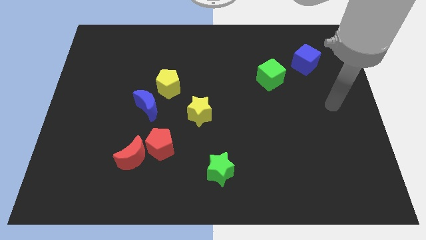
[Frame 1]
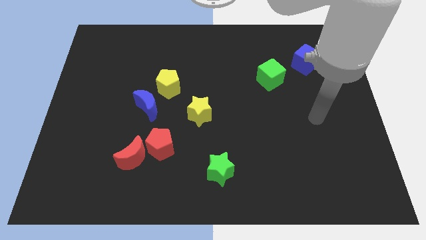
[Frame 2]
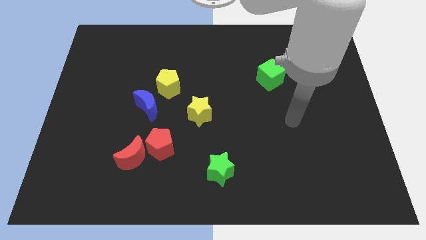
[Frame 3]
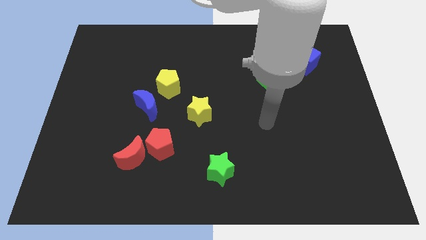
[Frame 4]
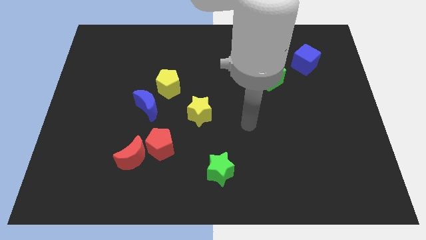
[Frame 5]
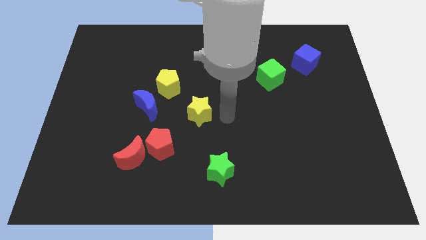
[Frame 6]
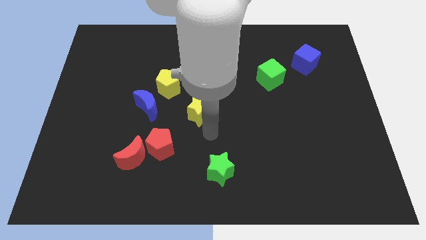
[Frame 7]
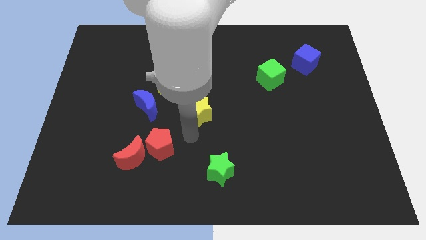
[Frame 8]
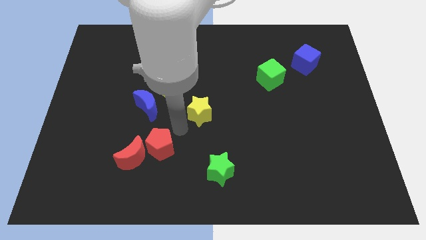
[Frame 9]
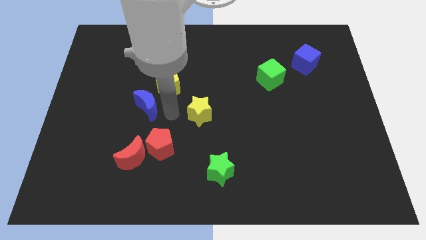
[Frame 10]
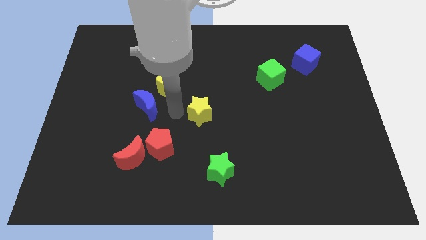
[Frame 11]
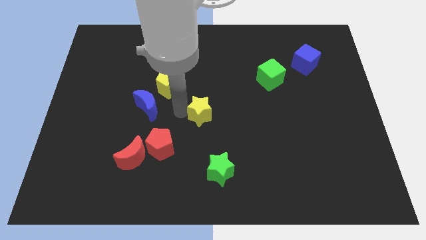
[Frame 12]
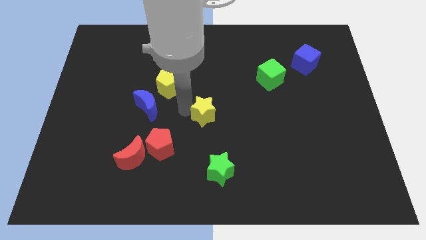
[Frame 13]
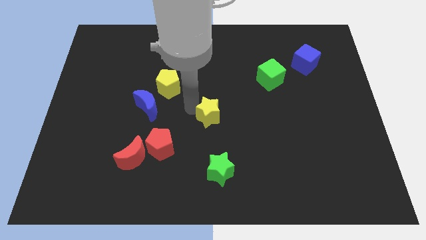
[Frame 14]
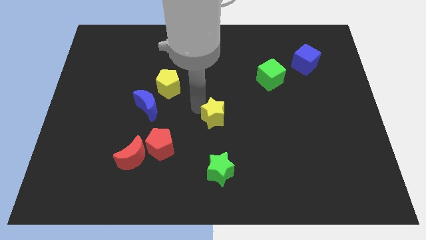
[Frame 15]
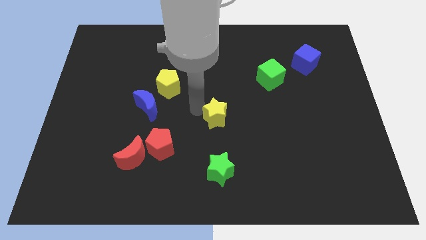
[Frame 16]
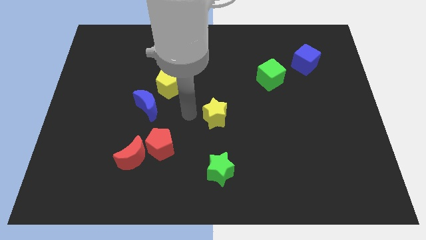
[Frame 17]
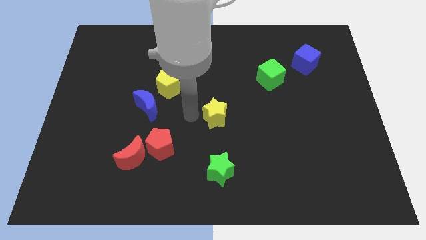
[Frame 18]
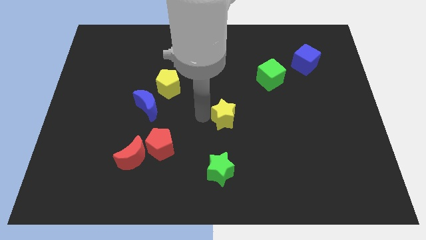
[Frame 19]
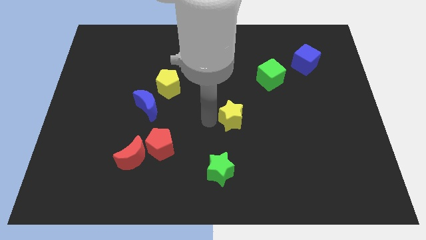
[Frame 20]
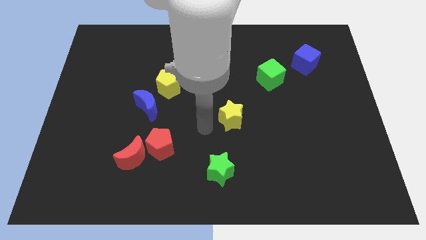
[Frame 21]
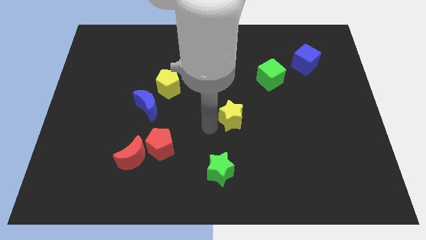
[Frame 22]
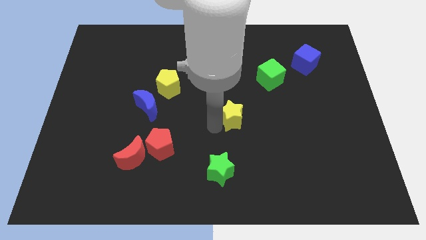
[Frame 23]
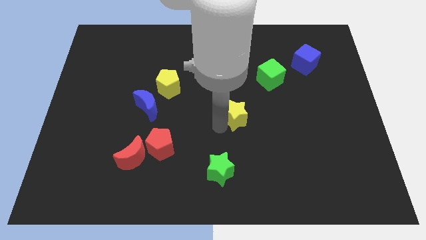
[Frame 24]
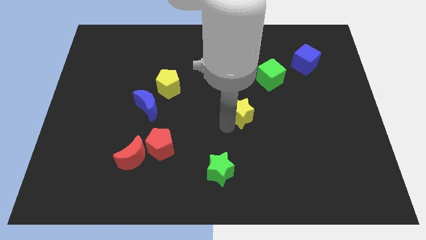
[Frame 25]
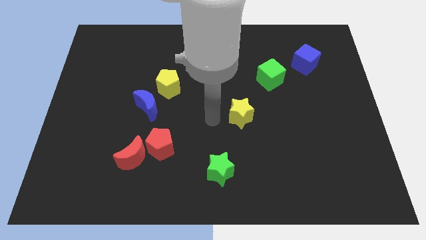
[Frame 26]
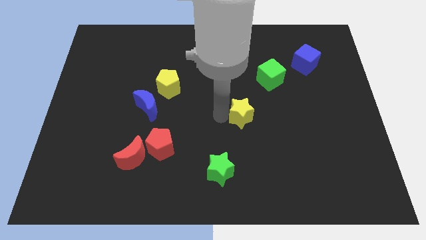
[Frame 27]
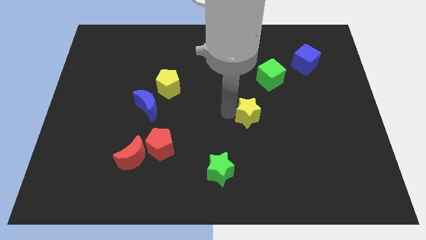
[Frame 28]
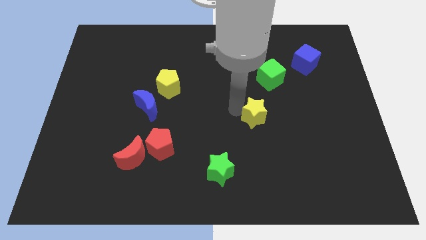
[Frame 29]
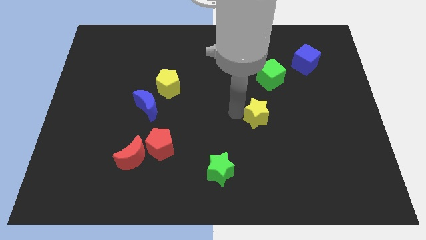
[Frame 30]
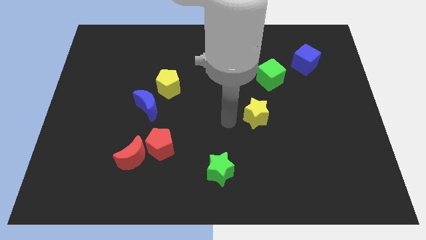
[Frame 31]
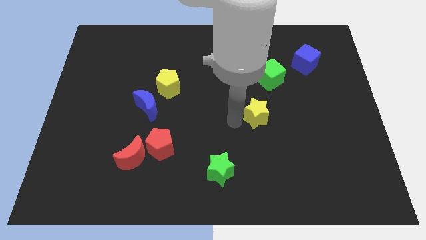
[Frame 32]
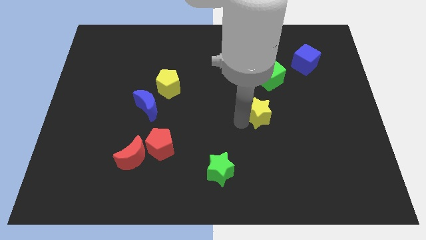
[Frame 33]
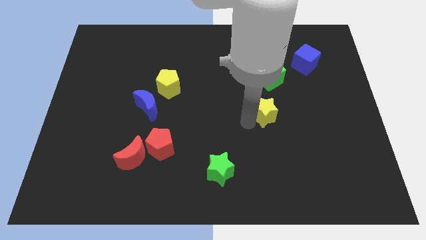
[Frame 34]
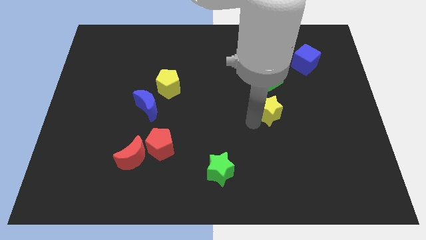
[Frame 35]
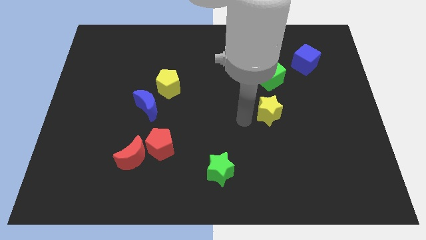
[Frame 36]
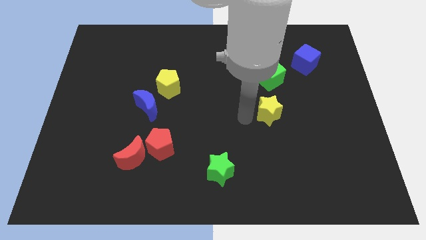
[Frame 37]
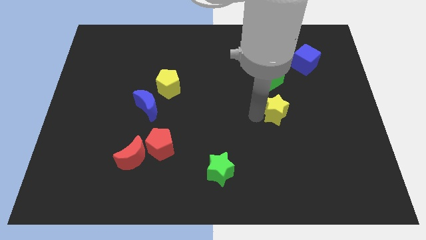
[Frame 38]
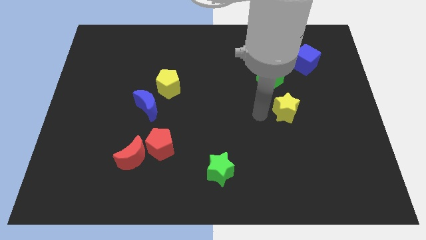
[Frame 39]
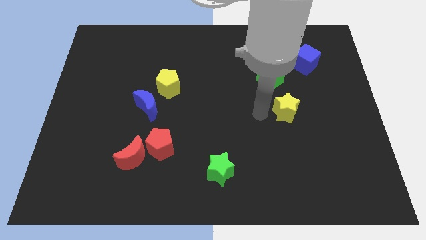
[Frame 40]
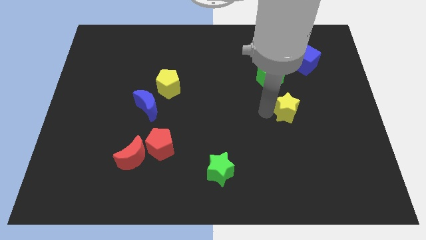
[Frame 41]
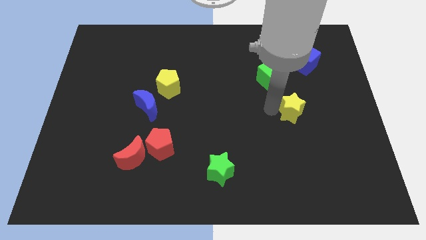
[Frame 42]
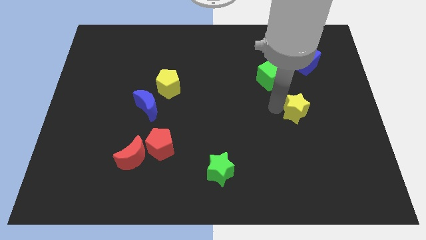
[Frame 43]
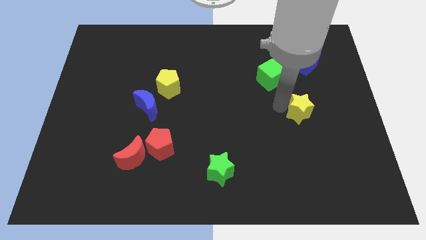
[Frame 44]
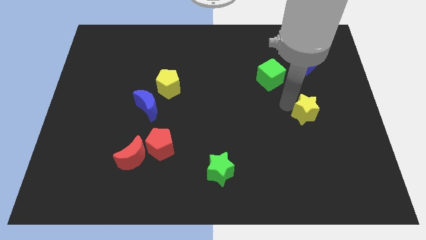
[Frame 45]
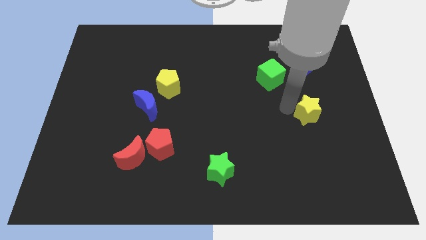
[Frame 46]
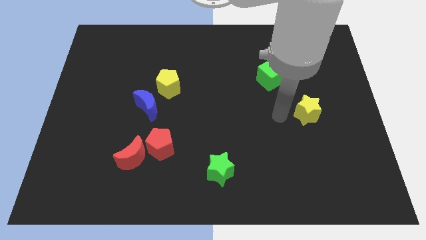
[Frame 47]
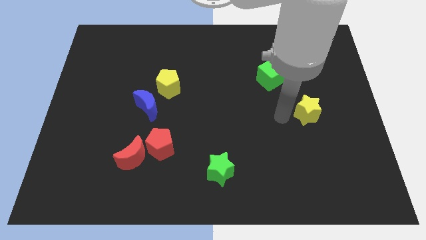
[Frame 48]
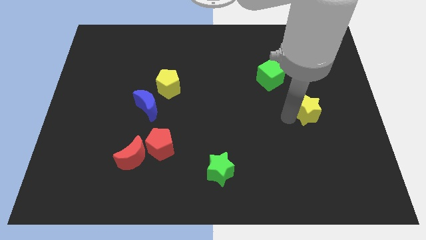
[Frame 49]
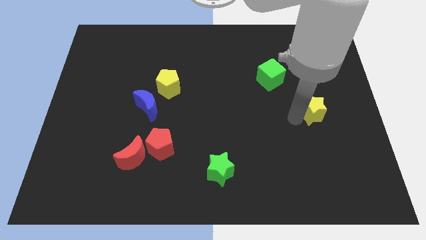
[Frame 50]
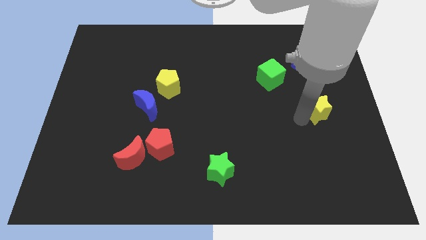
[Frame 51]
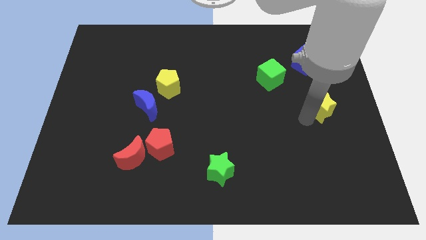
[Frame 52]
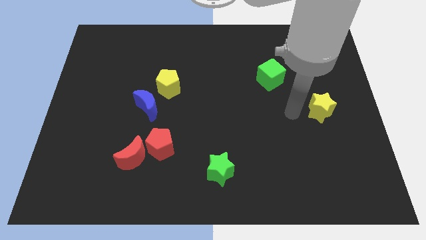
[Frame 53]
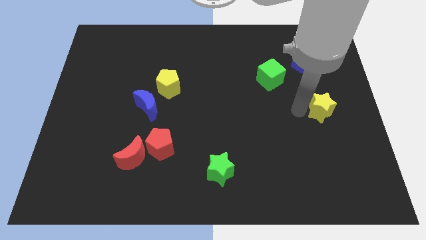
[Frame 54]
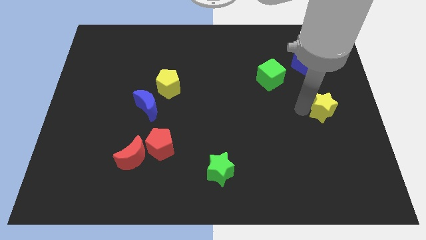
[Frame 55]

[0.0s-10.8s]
slide the yellow star to the right side
